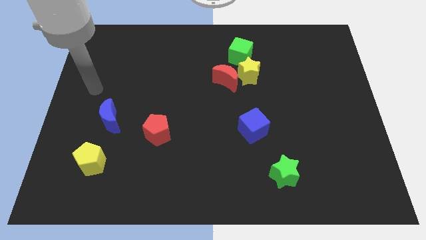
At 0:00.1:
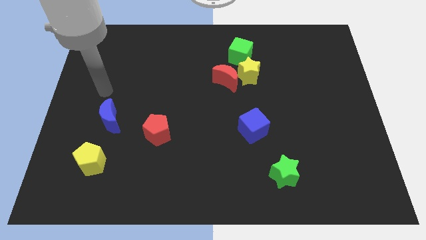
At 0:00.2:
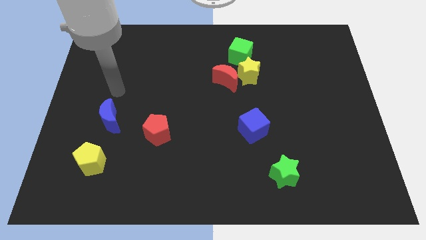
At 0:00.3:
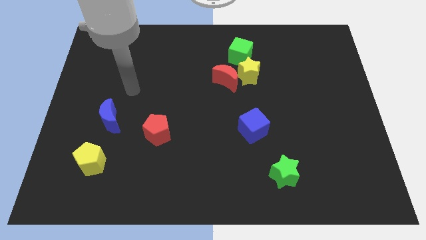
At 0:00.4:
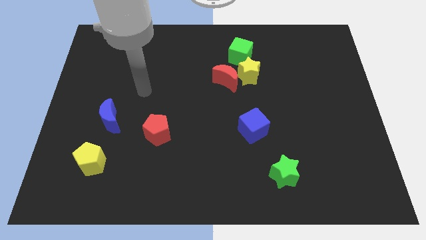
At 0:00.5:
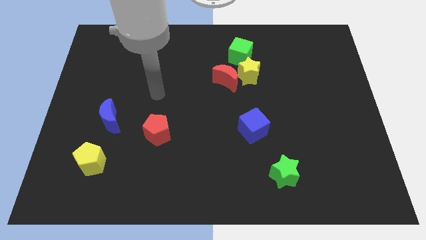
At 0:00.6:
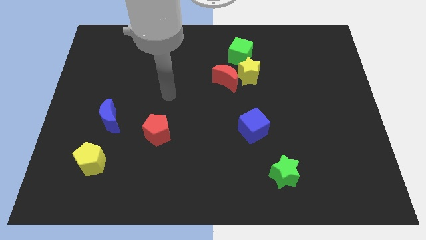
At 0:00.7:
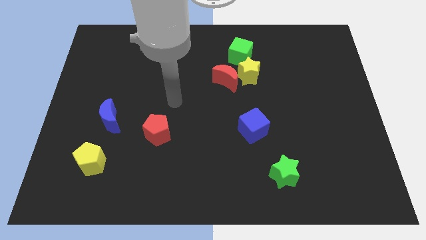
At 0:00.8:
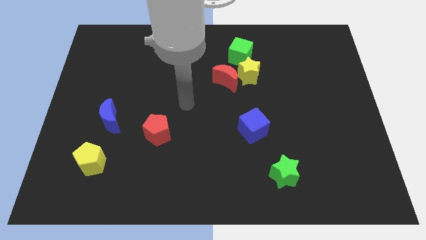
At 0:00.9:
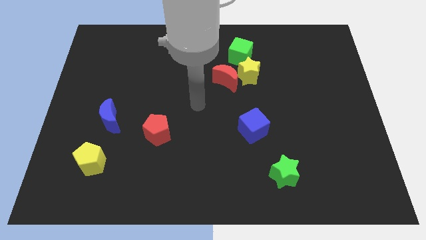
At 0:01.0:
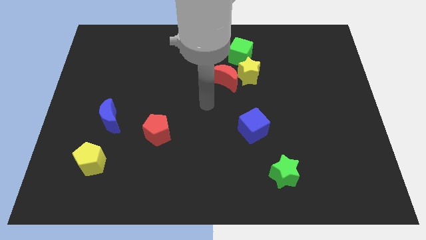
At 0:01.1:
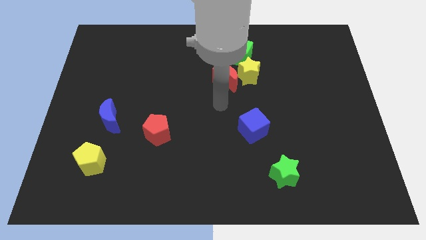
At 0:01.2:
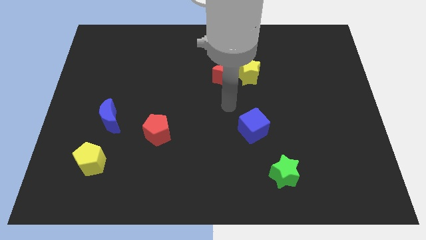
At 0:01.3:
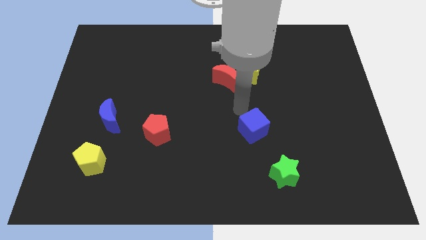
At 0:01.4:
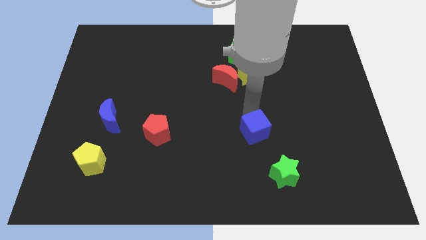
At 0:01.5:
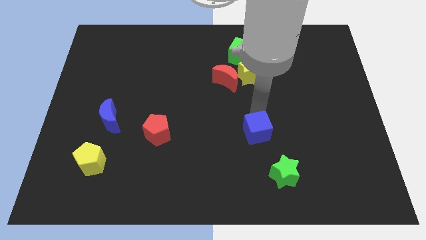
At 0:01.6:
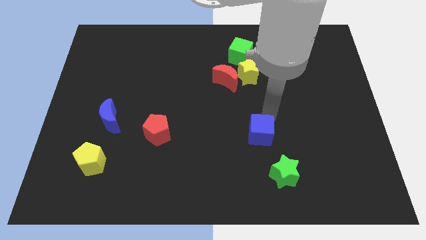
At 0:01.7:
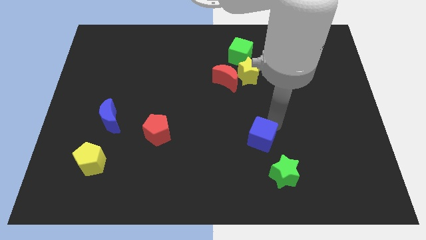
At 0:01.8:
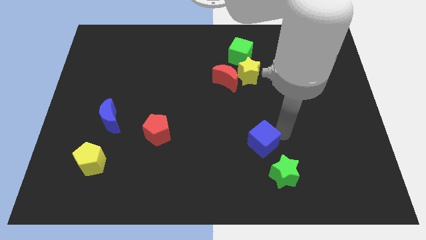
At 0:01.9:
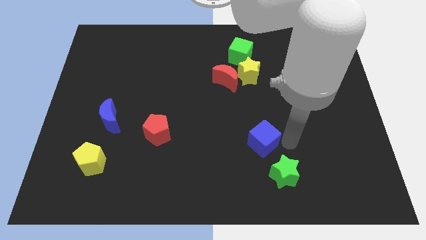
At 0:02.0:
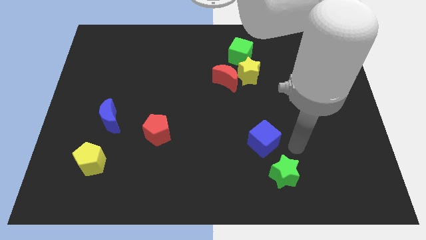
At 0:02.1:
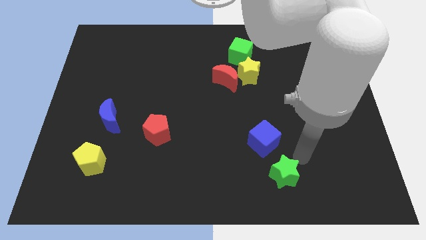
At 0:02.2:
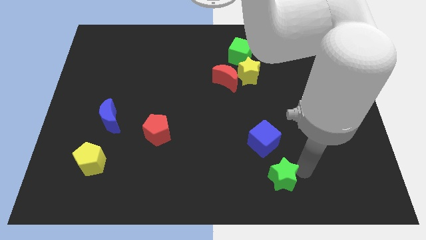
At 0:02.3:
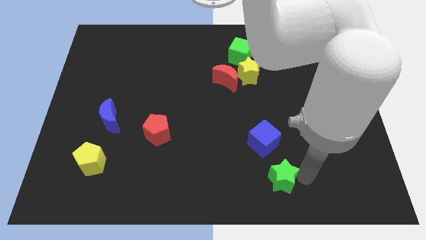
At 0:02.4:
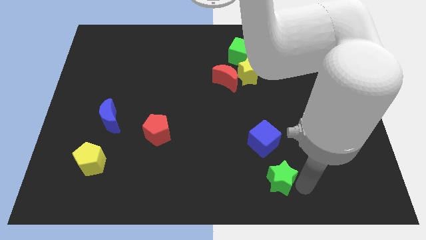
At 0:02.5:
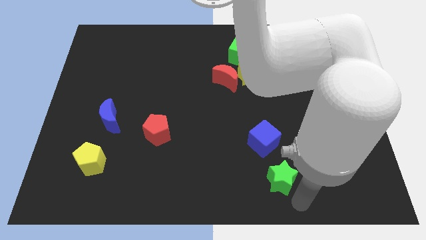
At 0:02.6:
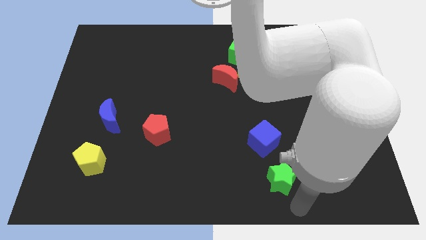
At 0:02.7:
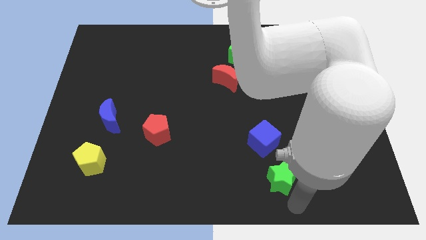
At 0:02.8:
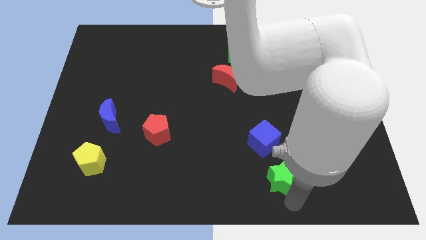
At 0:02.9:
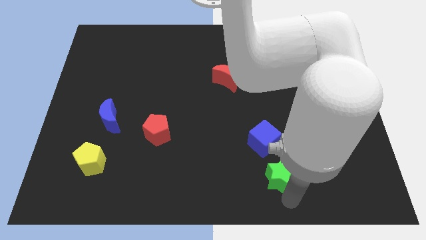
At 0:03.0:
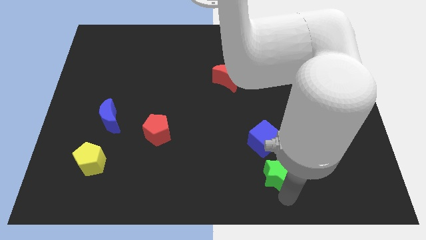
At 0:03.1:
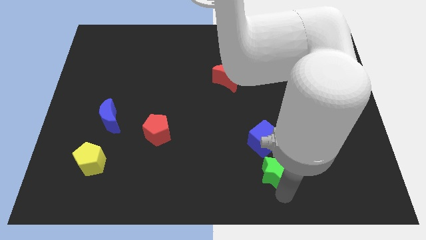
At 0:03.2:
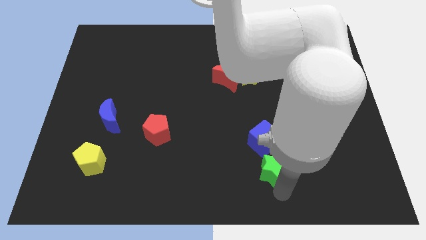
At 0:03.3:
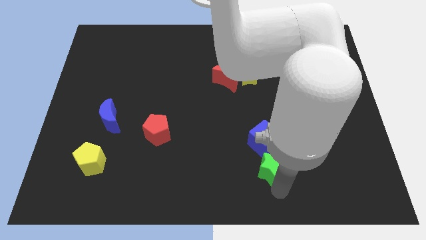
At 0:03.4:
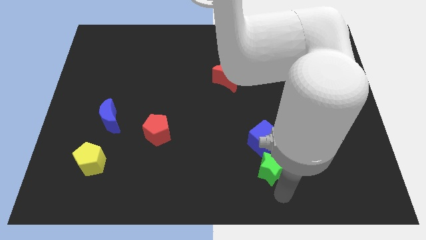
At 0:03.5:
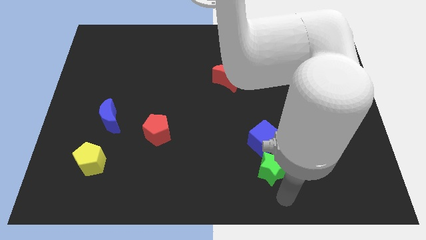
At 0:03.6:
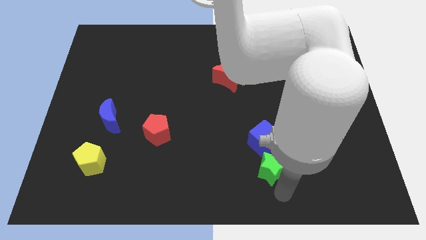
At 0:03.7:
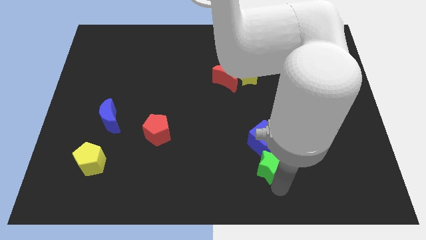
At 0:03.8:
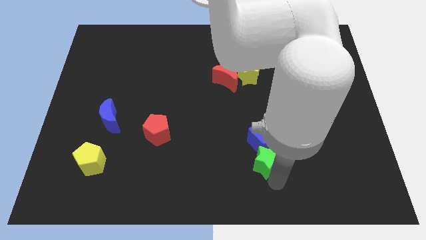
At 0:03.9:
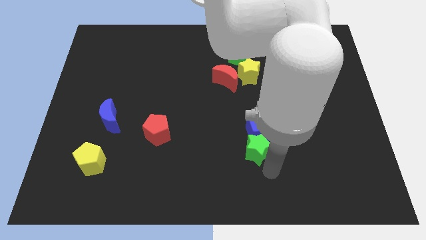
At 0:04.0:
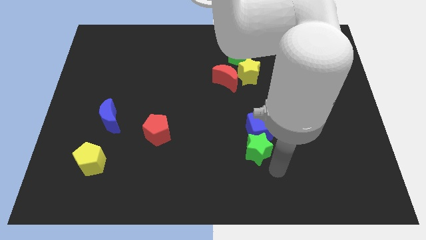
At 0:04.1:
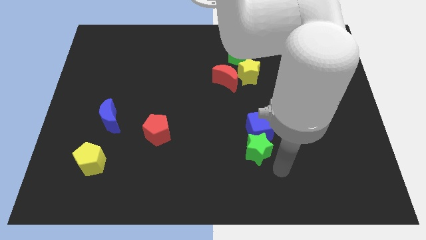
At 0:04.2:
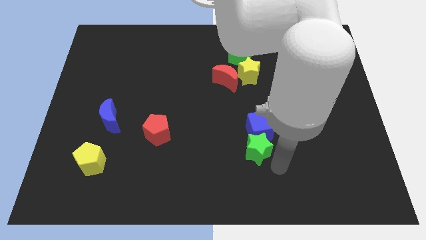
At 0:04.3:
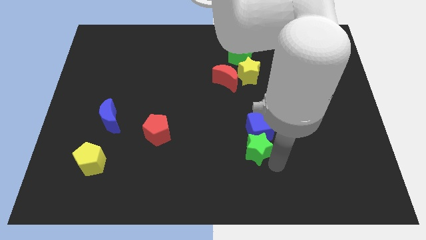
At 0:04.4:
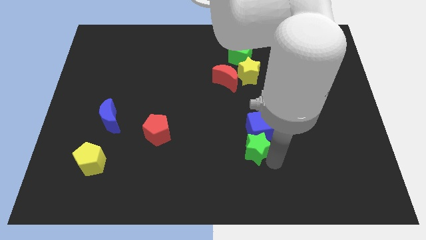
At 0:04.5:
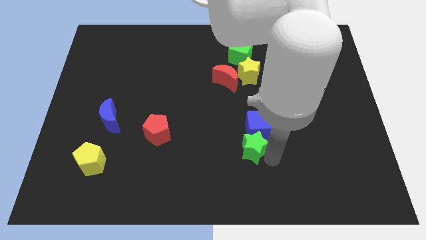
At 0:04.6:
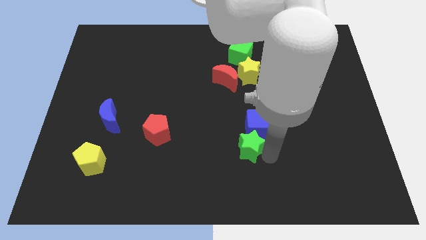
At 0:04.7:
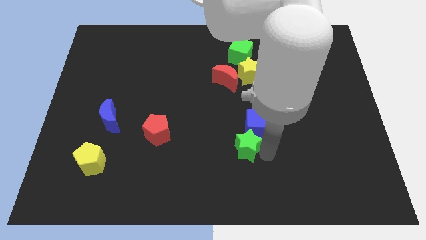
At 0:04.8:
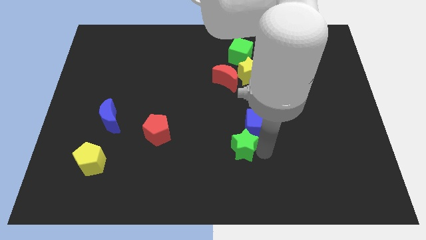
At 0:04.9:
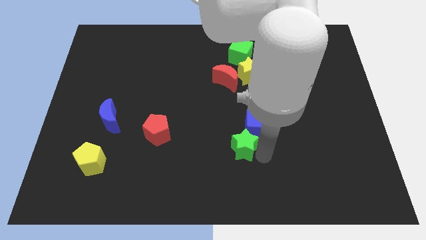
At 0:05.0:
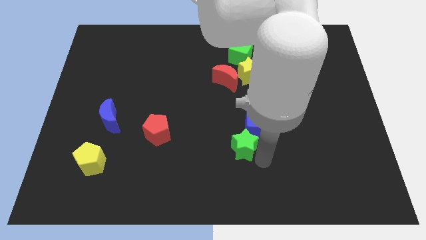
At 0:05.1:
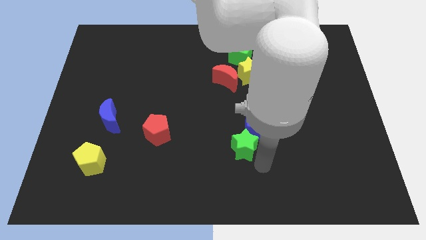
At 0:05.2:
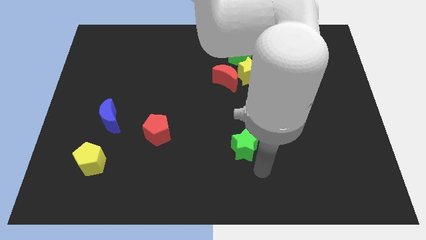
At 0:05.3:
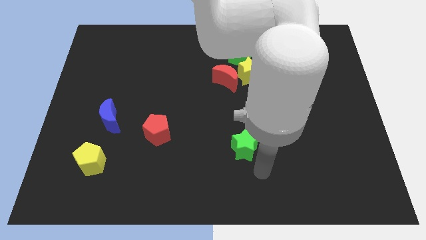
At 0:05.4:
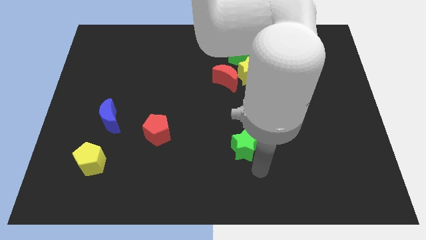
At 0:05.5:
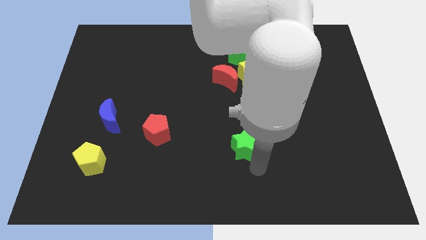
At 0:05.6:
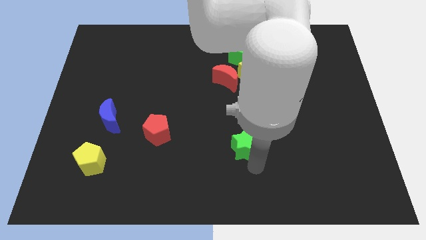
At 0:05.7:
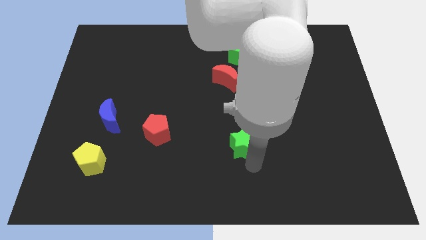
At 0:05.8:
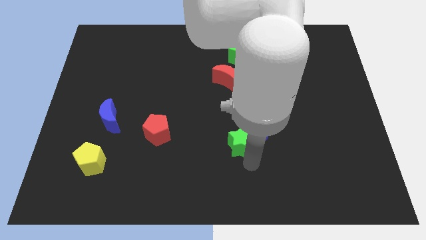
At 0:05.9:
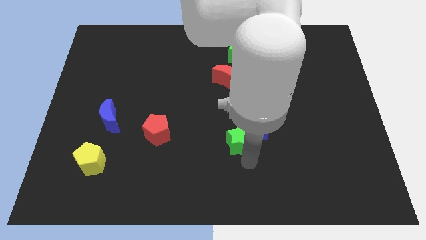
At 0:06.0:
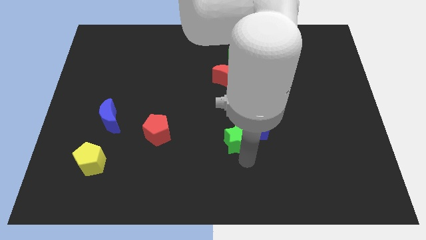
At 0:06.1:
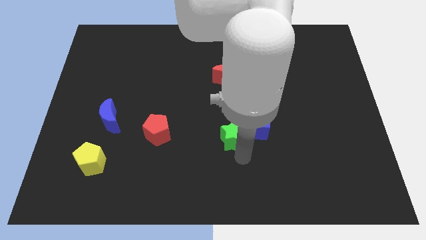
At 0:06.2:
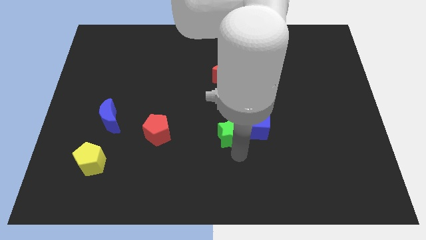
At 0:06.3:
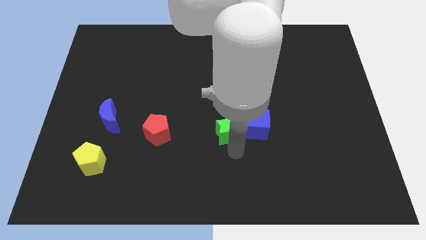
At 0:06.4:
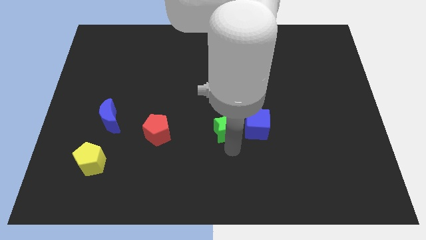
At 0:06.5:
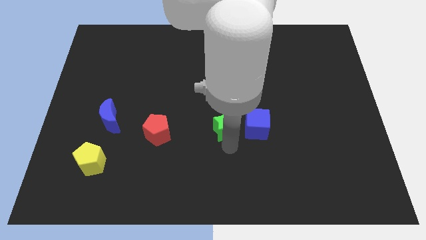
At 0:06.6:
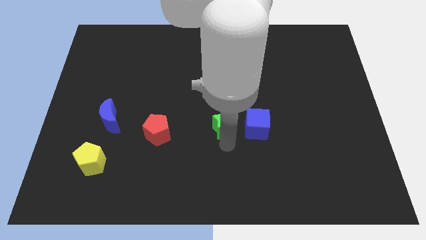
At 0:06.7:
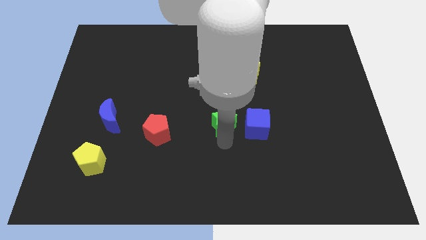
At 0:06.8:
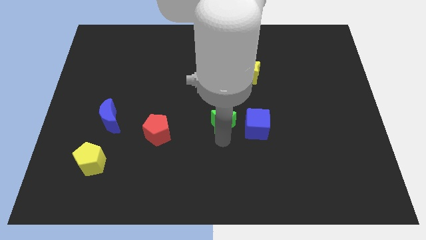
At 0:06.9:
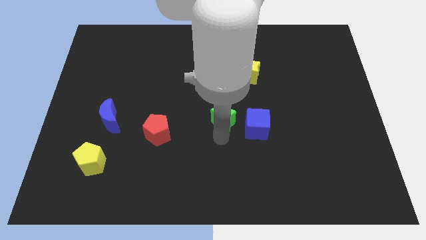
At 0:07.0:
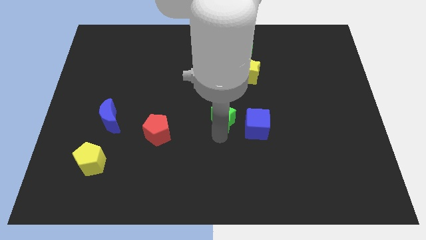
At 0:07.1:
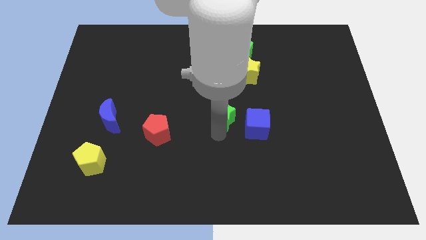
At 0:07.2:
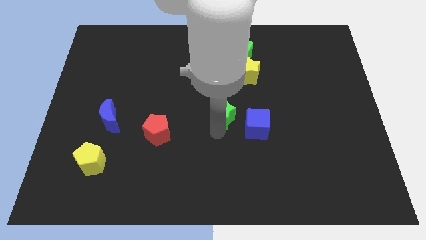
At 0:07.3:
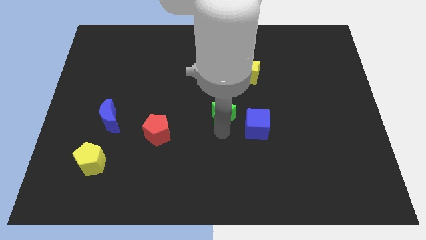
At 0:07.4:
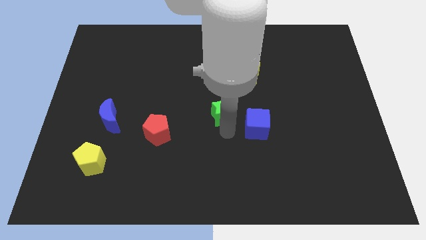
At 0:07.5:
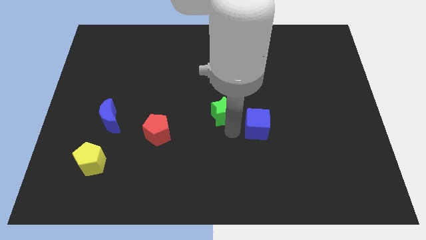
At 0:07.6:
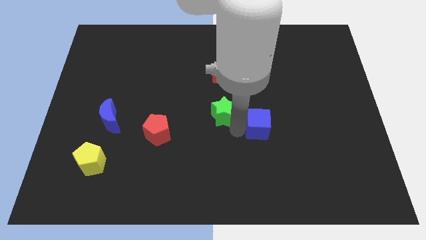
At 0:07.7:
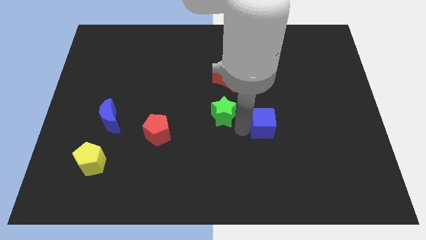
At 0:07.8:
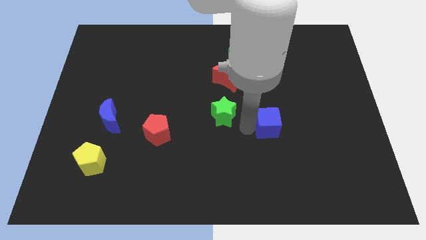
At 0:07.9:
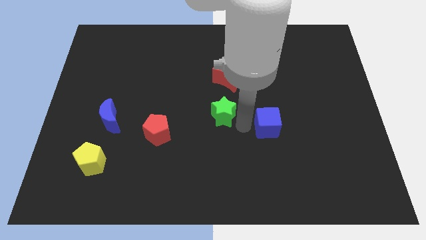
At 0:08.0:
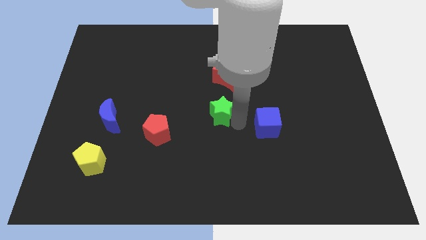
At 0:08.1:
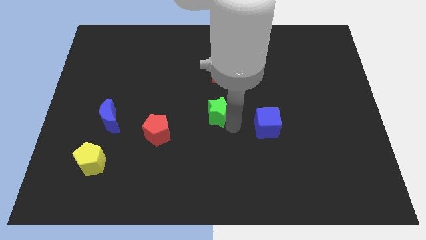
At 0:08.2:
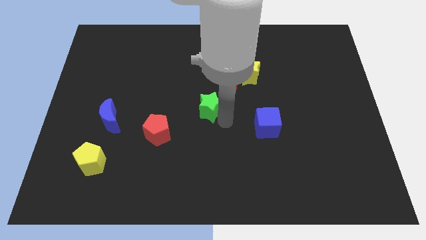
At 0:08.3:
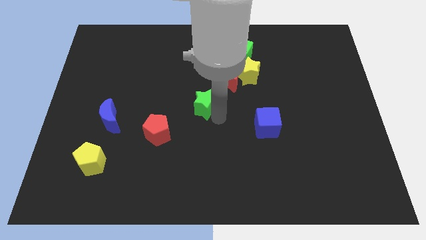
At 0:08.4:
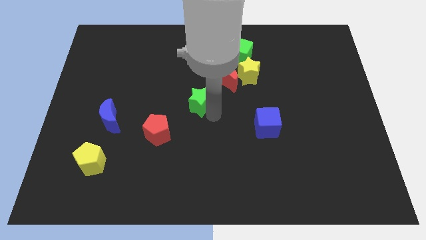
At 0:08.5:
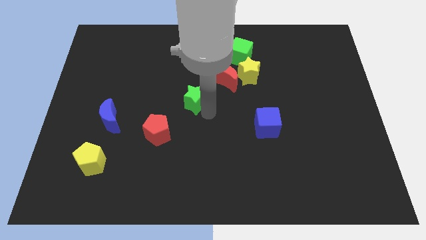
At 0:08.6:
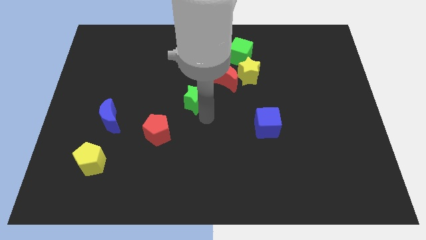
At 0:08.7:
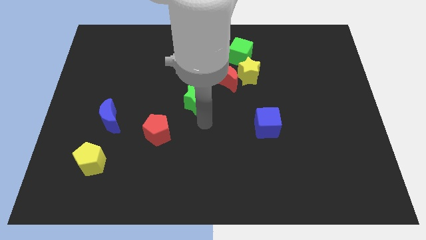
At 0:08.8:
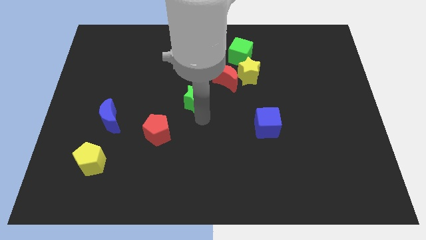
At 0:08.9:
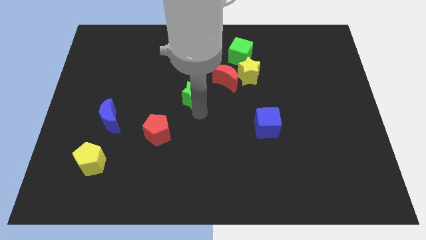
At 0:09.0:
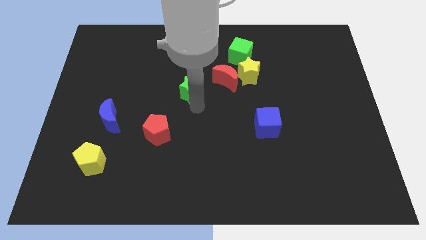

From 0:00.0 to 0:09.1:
push the green star to the left of the red moon
